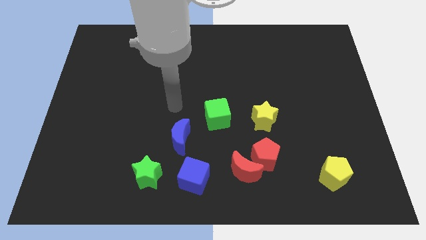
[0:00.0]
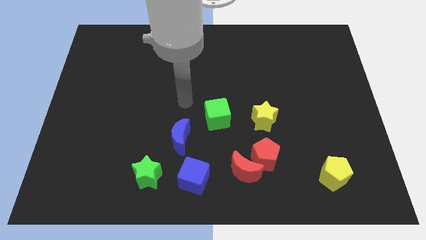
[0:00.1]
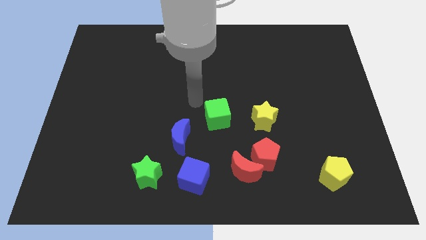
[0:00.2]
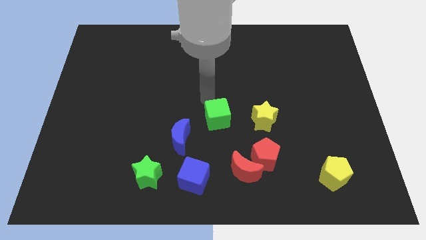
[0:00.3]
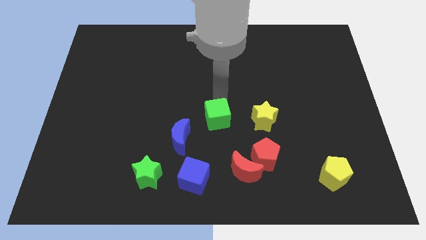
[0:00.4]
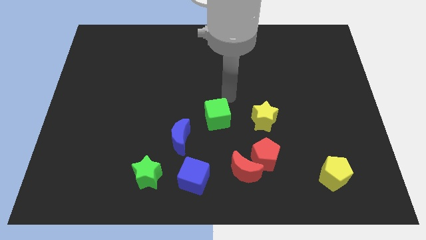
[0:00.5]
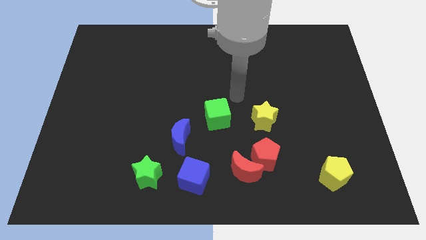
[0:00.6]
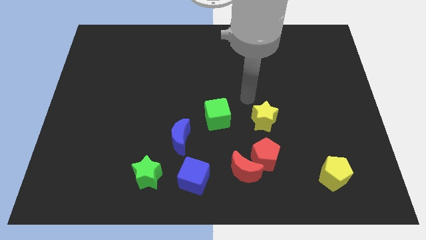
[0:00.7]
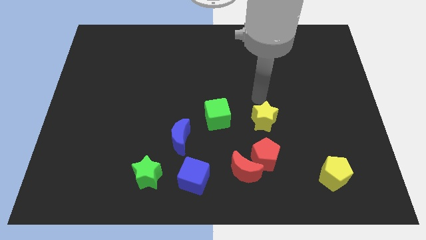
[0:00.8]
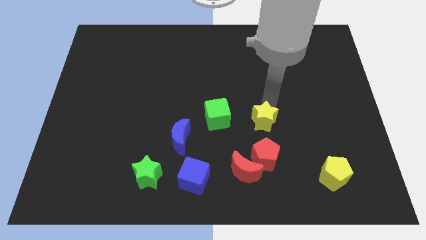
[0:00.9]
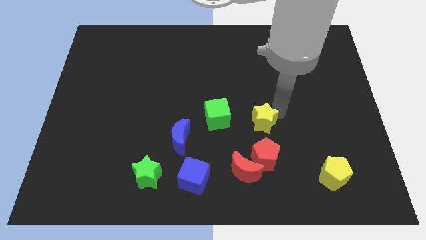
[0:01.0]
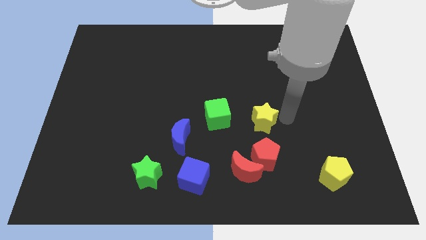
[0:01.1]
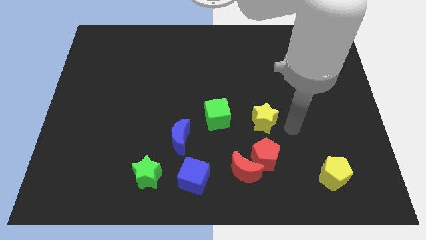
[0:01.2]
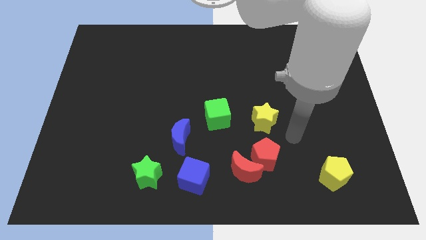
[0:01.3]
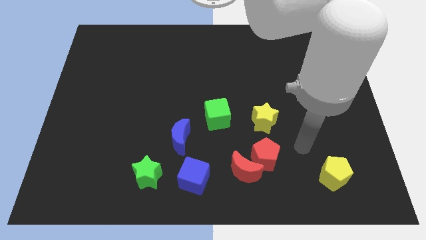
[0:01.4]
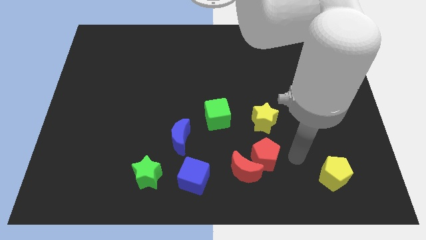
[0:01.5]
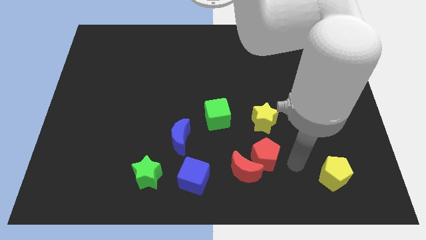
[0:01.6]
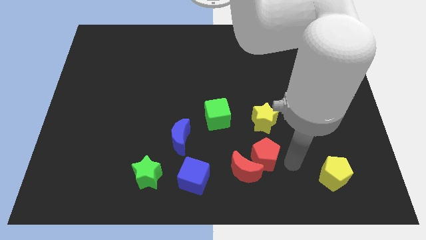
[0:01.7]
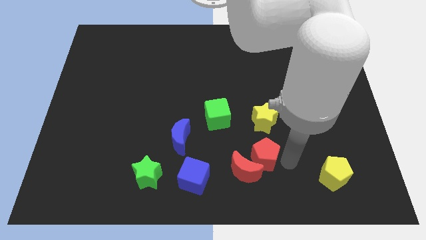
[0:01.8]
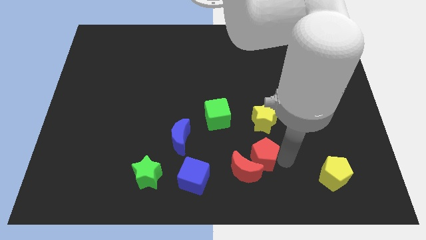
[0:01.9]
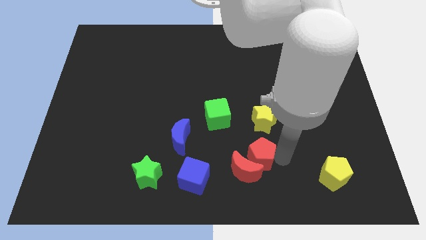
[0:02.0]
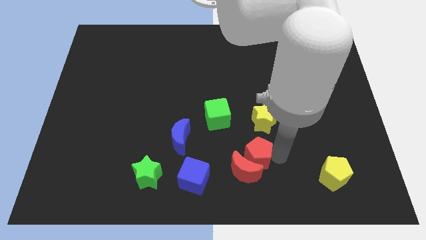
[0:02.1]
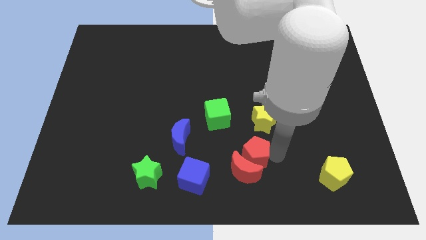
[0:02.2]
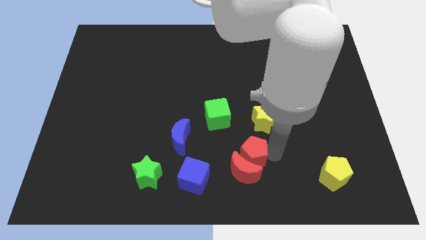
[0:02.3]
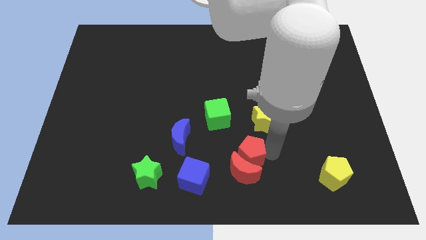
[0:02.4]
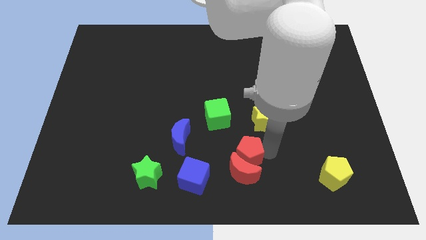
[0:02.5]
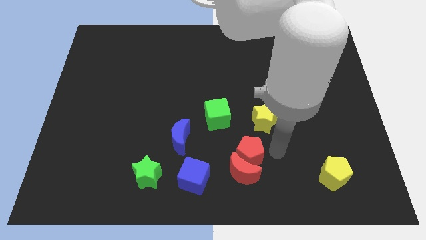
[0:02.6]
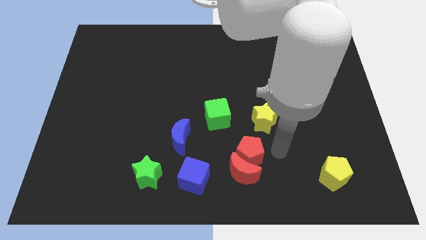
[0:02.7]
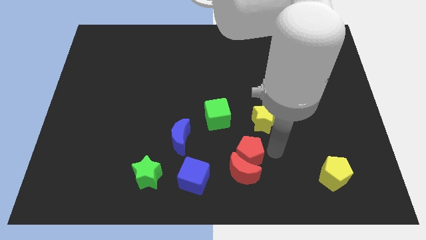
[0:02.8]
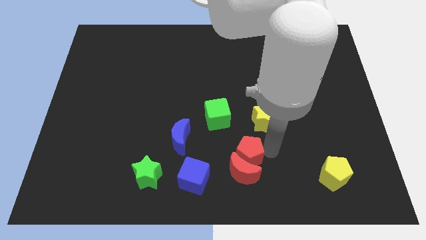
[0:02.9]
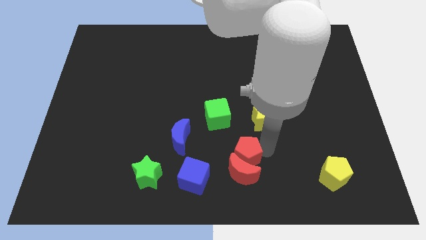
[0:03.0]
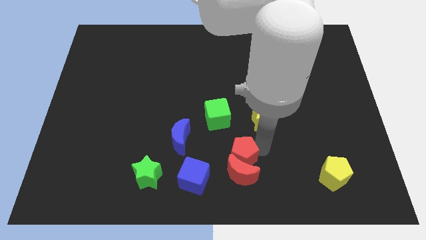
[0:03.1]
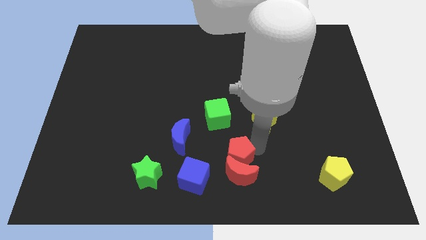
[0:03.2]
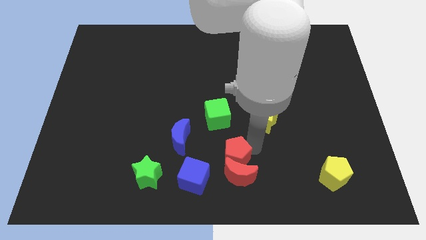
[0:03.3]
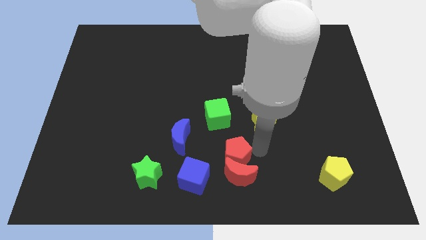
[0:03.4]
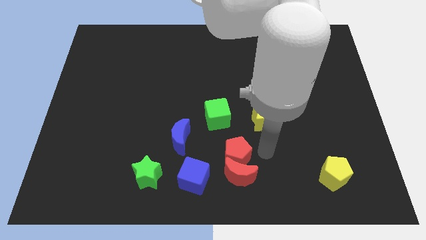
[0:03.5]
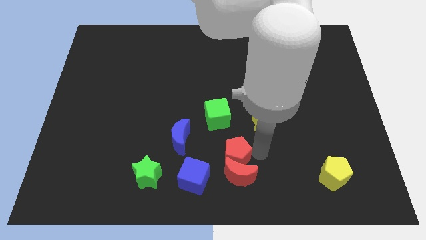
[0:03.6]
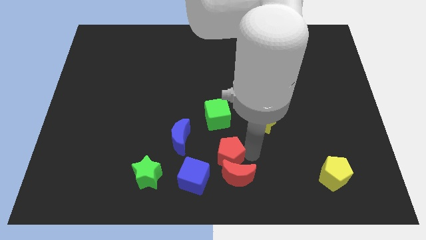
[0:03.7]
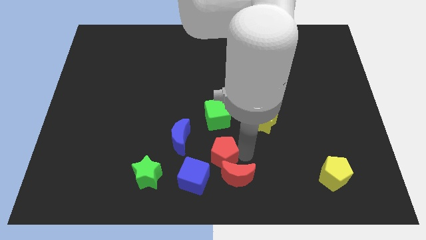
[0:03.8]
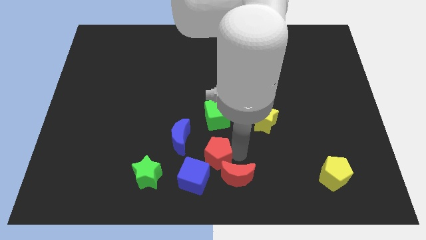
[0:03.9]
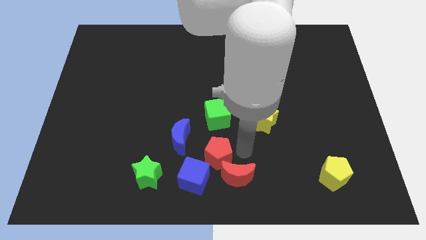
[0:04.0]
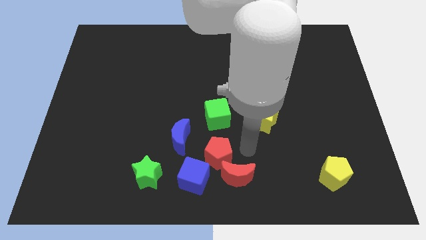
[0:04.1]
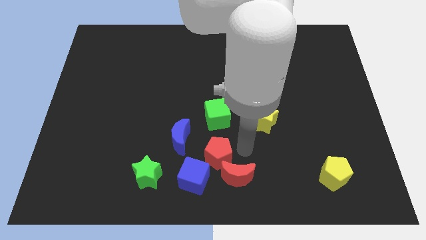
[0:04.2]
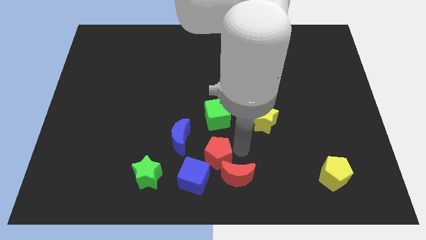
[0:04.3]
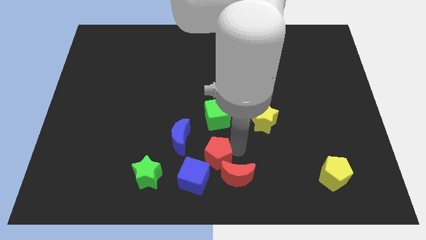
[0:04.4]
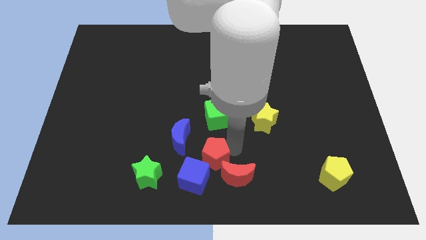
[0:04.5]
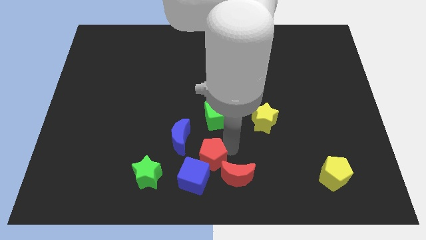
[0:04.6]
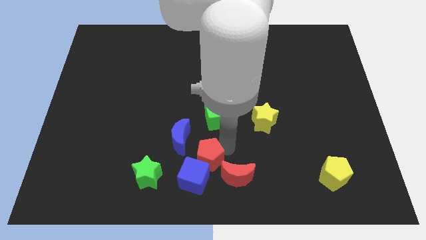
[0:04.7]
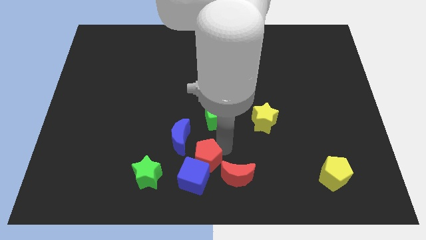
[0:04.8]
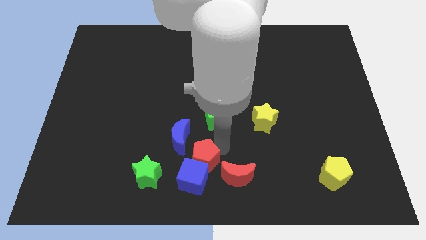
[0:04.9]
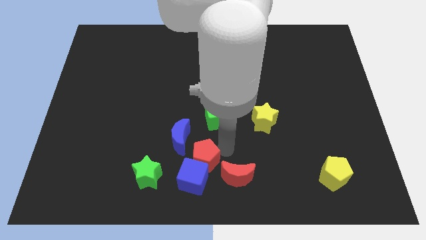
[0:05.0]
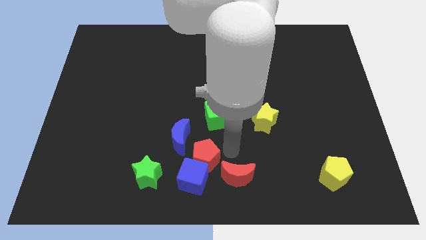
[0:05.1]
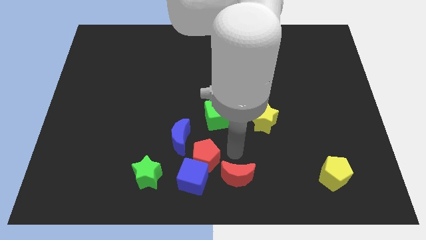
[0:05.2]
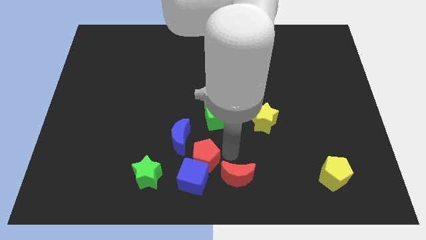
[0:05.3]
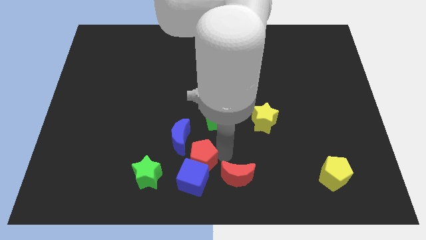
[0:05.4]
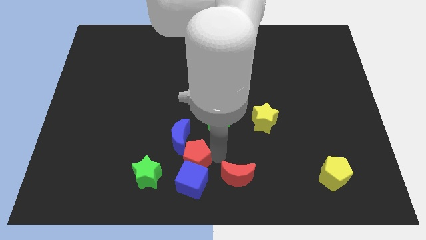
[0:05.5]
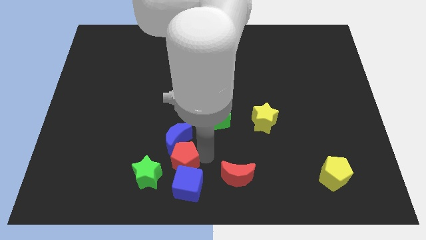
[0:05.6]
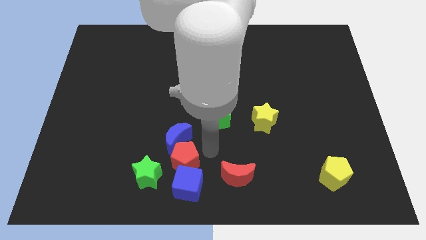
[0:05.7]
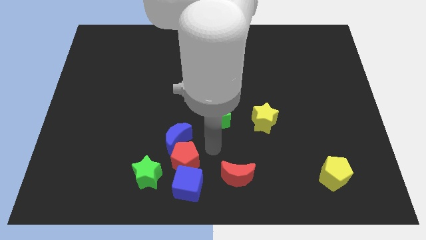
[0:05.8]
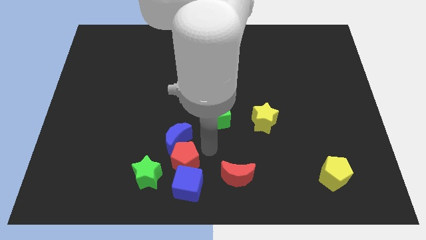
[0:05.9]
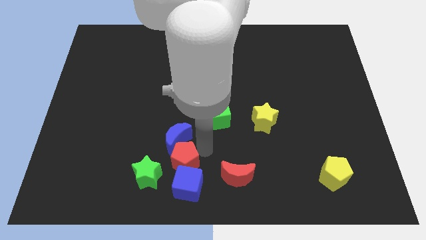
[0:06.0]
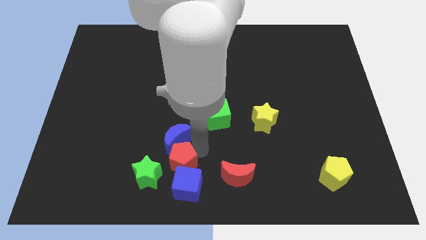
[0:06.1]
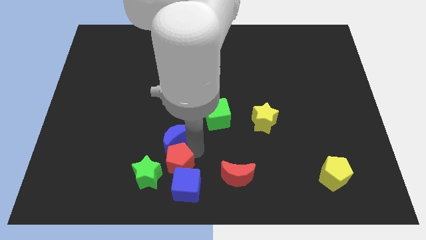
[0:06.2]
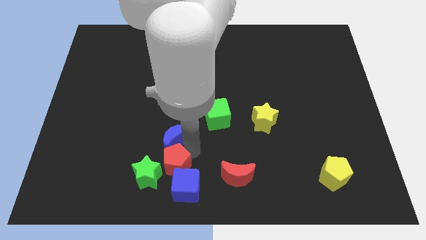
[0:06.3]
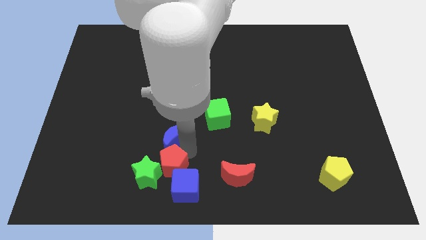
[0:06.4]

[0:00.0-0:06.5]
put the red pentagon to the green star

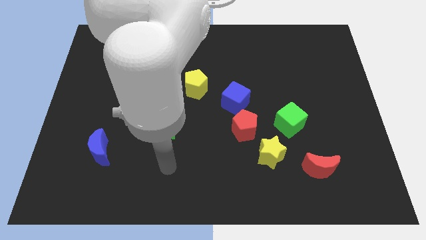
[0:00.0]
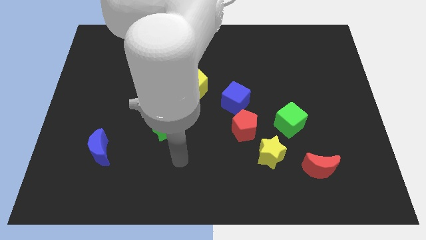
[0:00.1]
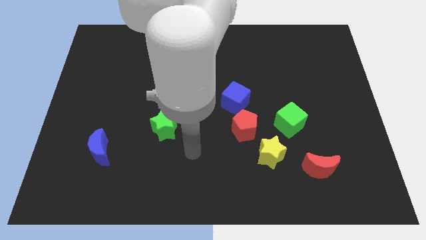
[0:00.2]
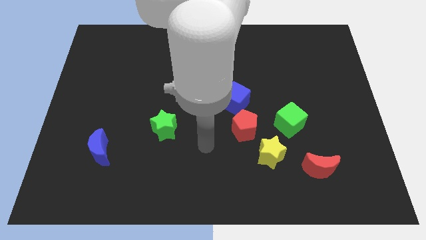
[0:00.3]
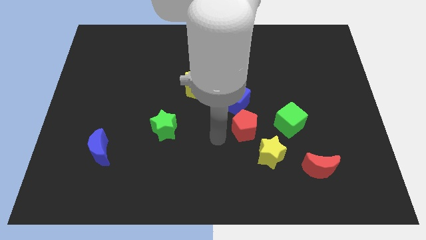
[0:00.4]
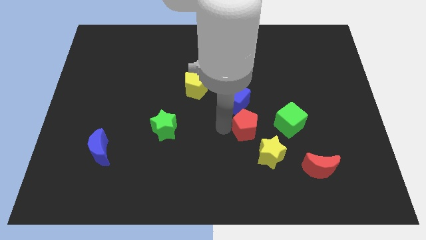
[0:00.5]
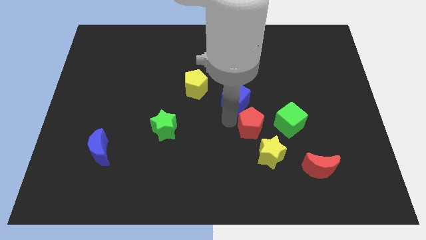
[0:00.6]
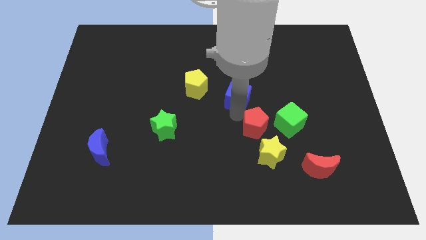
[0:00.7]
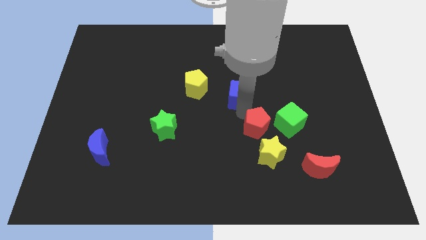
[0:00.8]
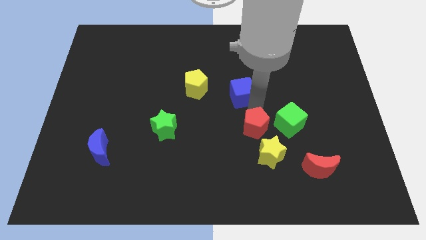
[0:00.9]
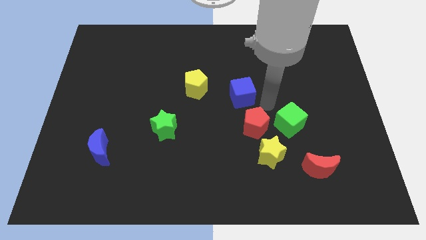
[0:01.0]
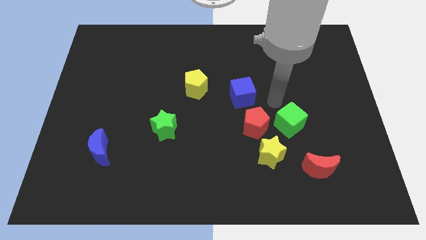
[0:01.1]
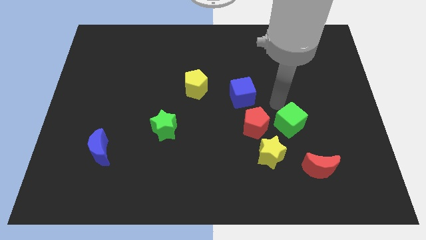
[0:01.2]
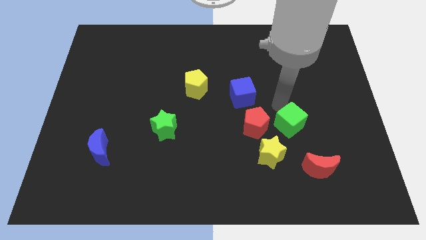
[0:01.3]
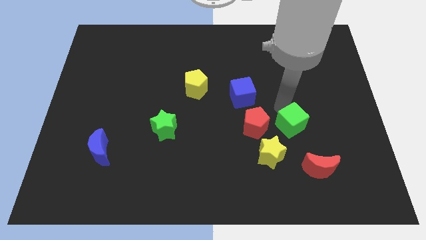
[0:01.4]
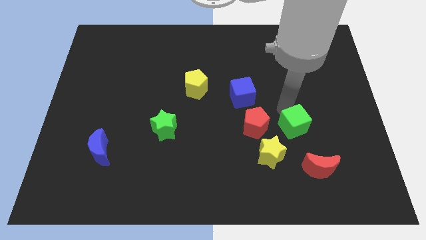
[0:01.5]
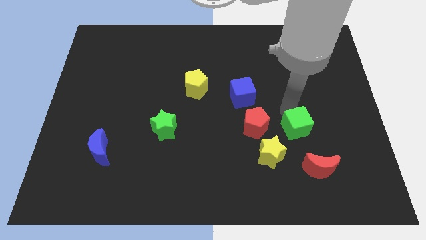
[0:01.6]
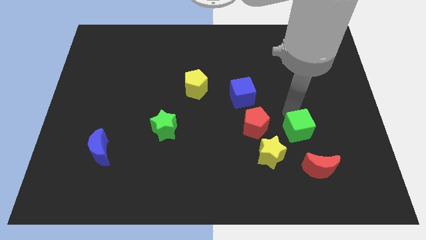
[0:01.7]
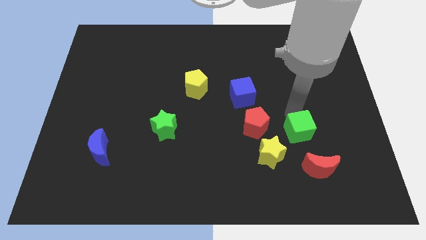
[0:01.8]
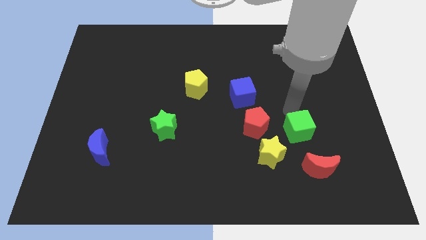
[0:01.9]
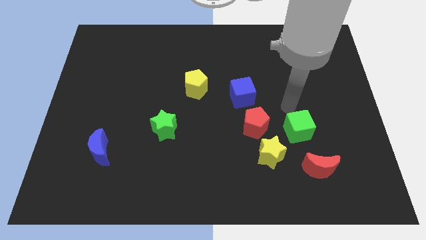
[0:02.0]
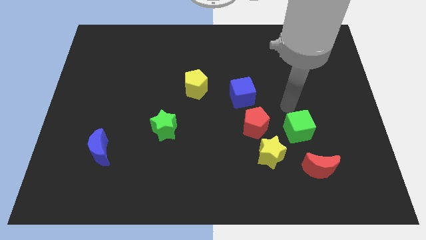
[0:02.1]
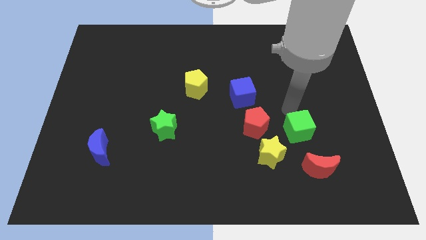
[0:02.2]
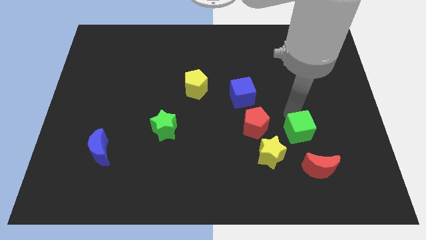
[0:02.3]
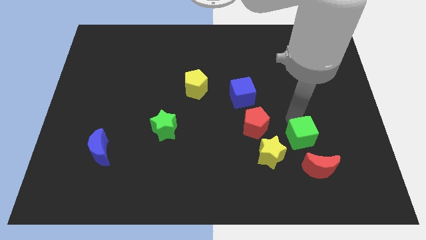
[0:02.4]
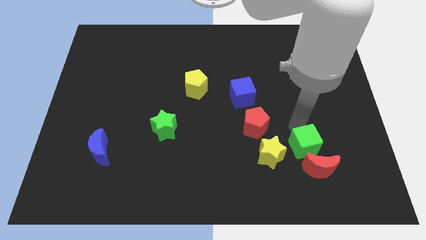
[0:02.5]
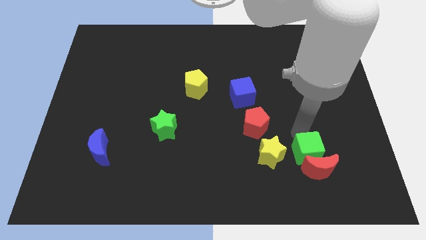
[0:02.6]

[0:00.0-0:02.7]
slide the green cube close to the red moon
